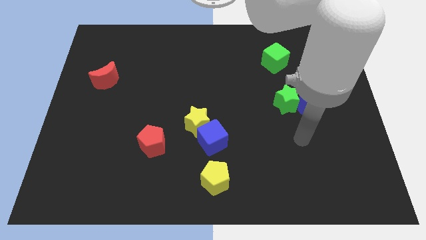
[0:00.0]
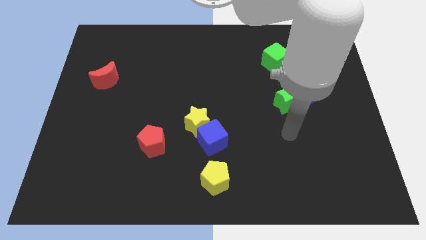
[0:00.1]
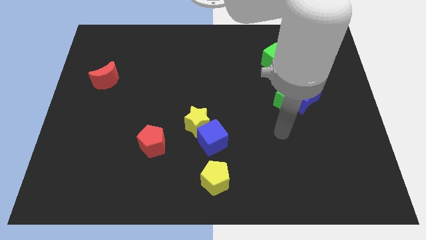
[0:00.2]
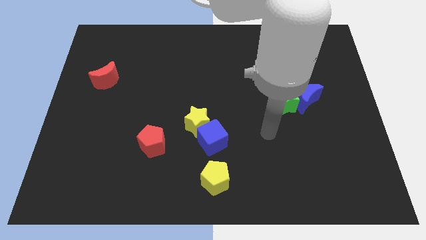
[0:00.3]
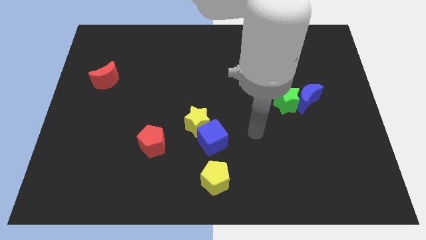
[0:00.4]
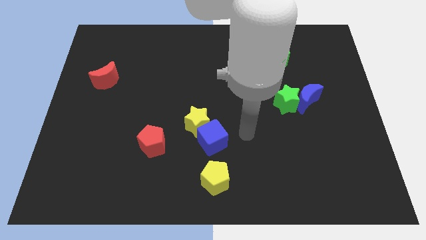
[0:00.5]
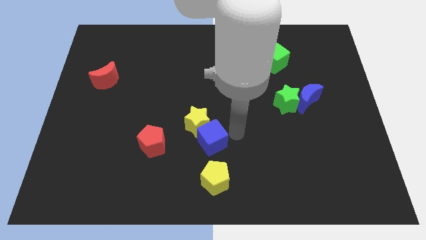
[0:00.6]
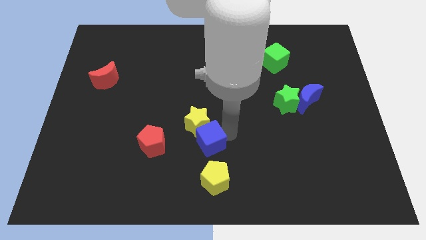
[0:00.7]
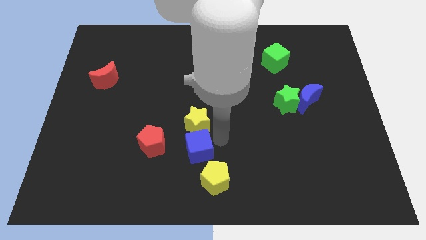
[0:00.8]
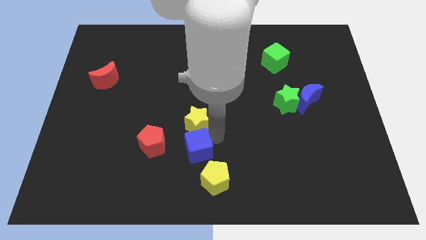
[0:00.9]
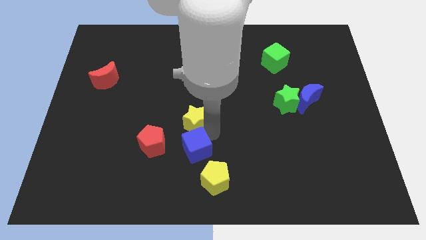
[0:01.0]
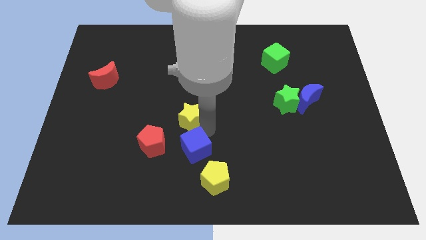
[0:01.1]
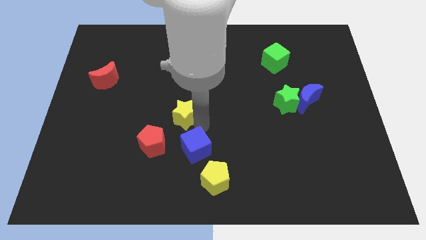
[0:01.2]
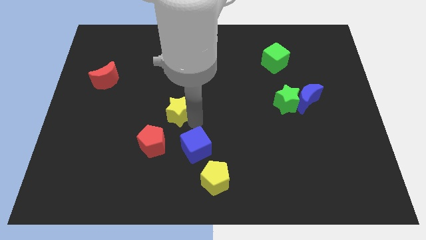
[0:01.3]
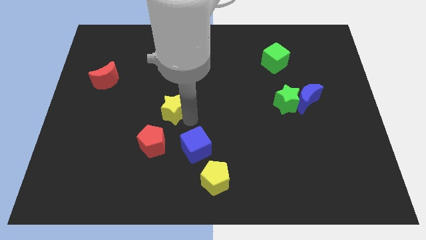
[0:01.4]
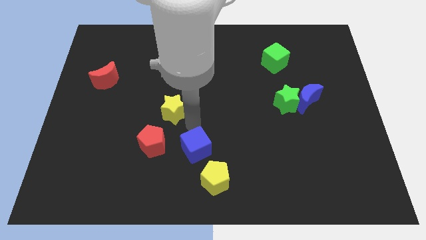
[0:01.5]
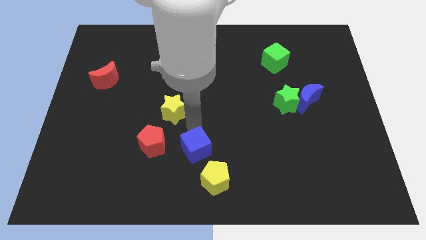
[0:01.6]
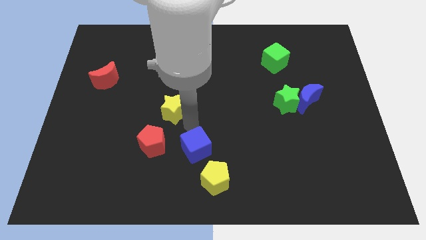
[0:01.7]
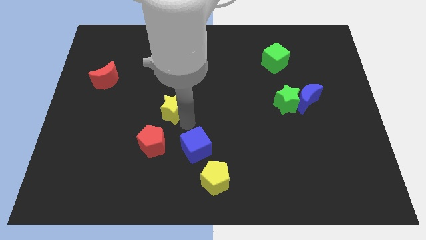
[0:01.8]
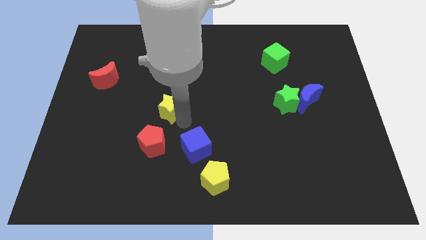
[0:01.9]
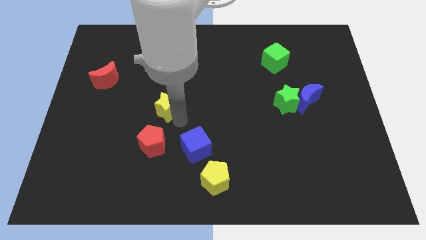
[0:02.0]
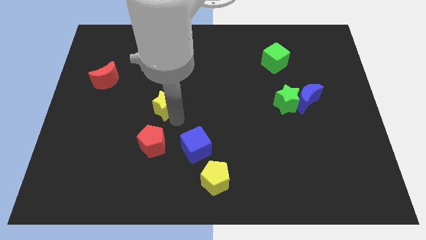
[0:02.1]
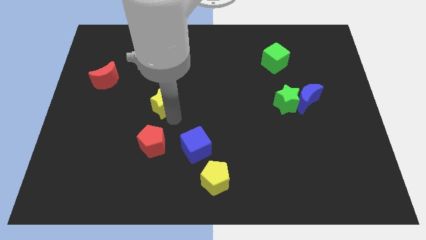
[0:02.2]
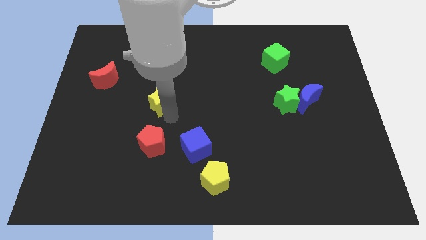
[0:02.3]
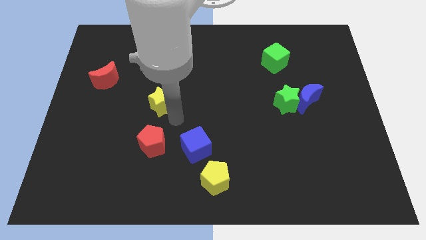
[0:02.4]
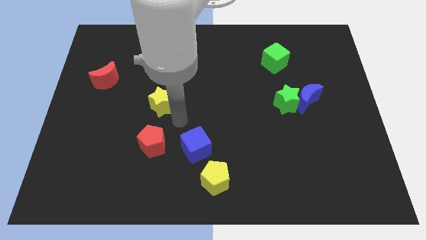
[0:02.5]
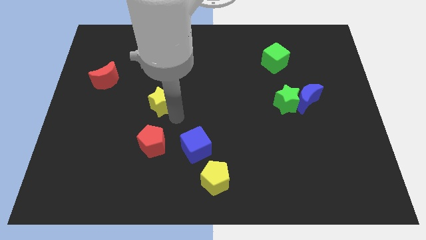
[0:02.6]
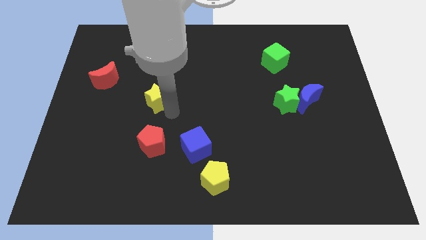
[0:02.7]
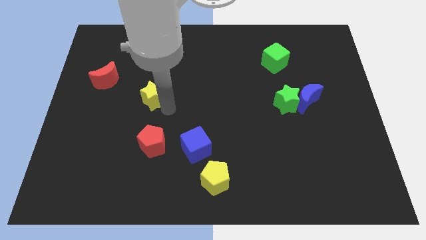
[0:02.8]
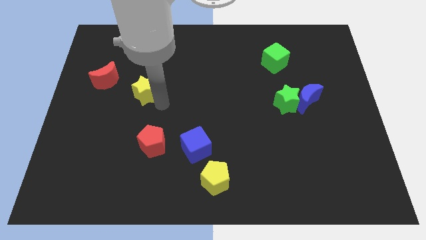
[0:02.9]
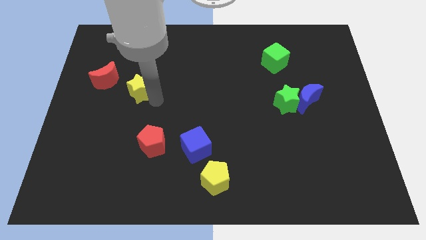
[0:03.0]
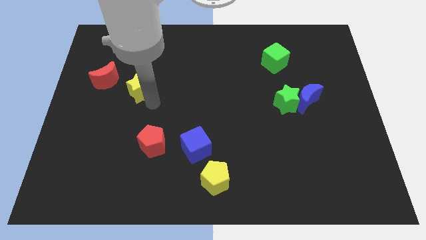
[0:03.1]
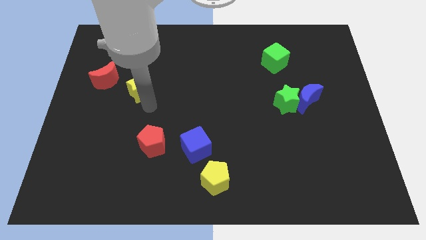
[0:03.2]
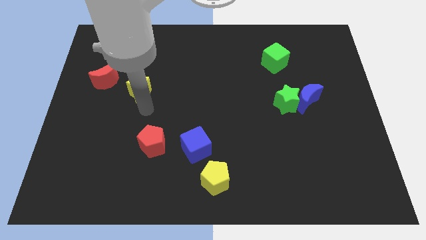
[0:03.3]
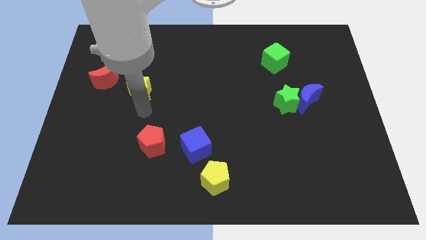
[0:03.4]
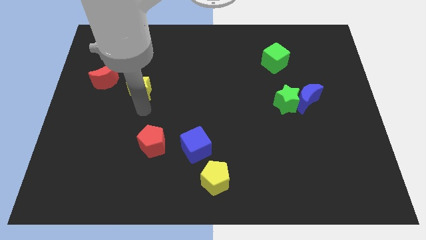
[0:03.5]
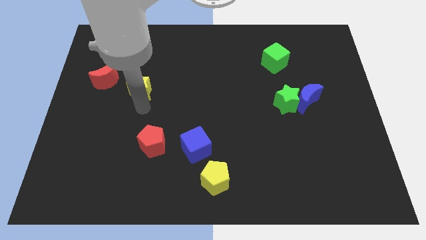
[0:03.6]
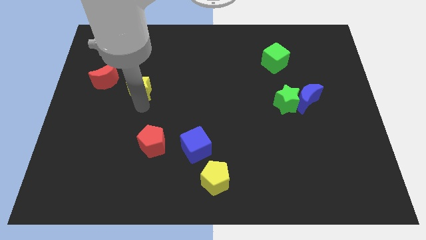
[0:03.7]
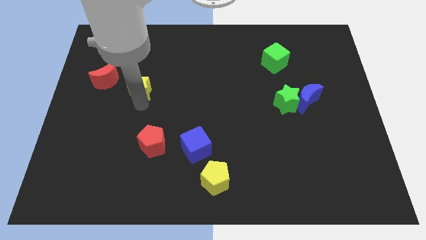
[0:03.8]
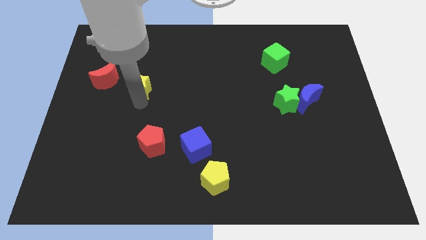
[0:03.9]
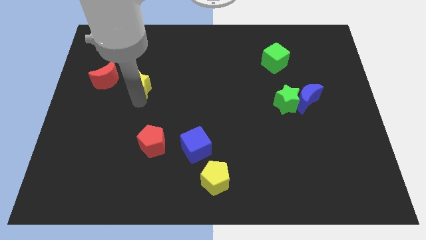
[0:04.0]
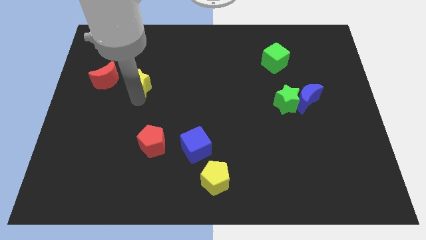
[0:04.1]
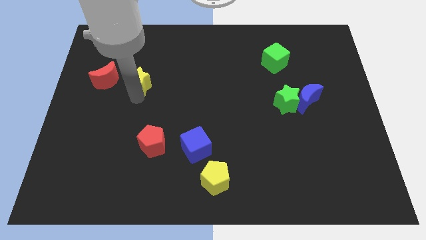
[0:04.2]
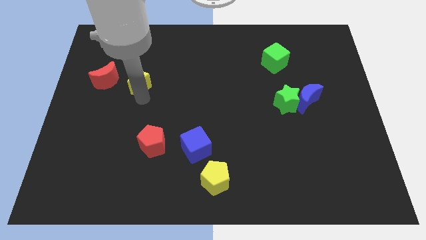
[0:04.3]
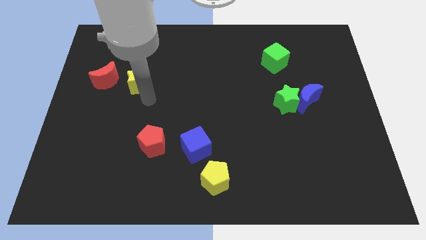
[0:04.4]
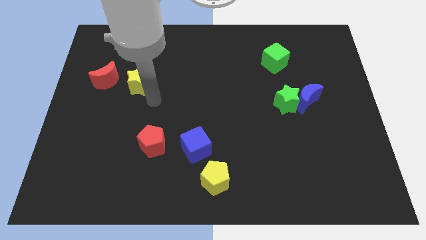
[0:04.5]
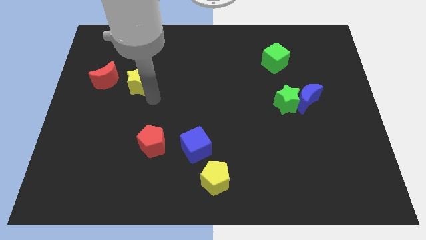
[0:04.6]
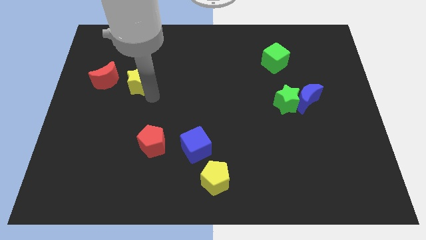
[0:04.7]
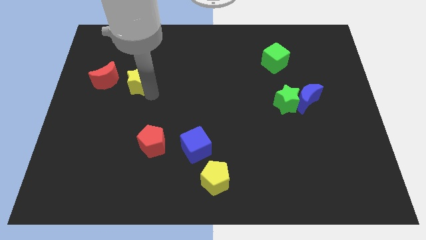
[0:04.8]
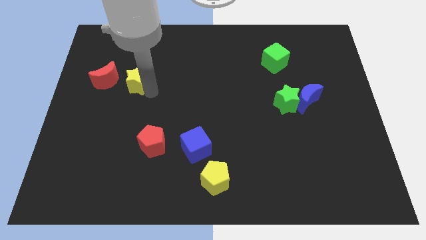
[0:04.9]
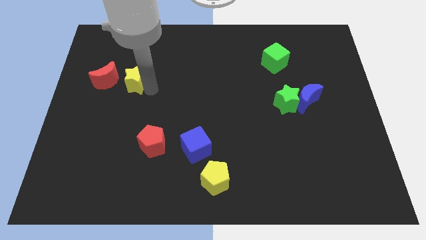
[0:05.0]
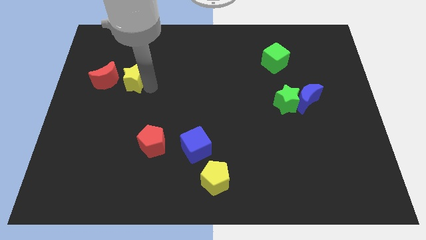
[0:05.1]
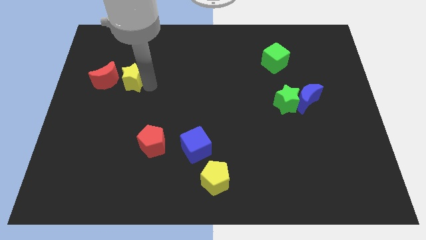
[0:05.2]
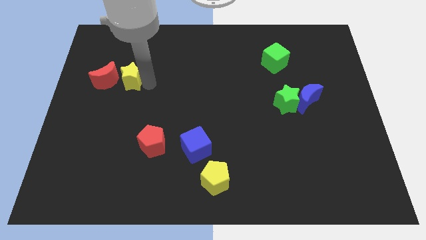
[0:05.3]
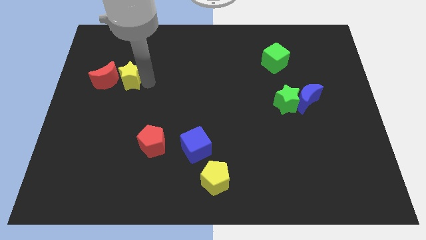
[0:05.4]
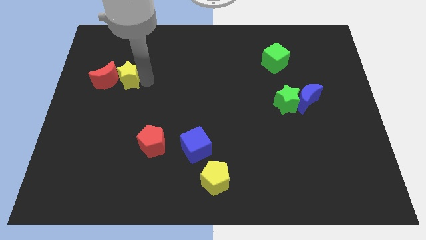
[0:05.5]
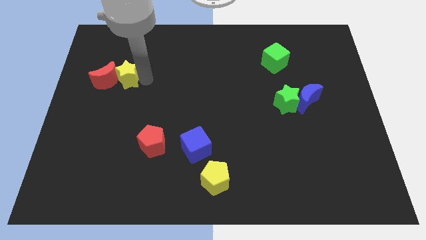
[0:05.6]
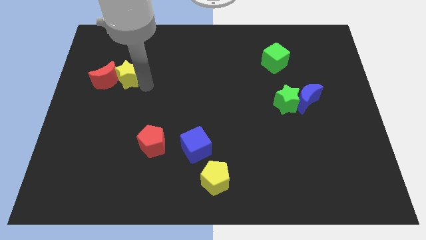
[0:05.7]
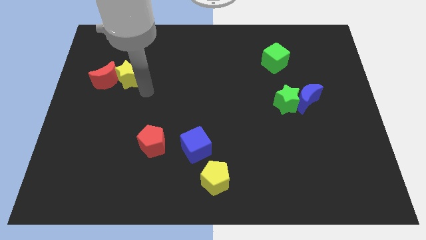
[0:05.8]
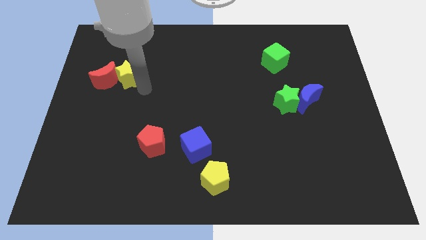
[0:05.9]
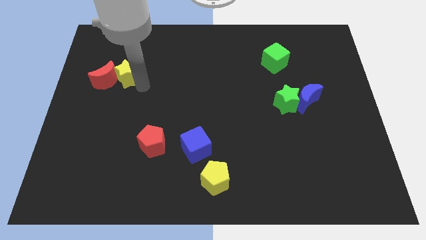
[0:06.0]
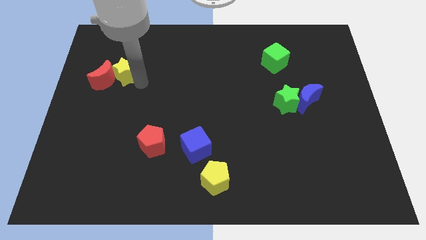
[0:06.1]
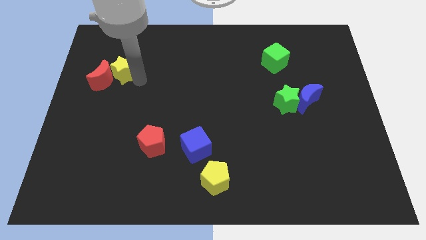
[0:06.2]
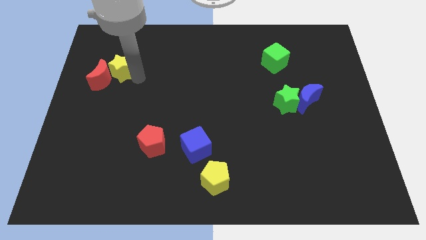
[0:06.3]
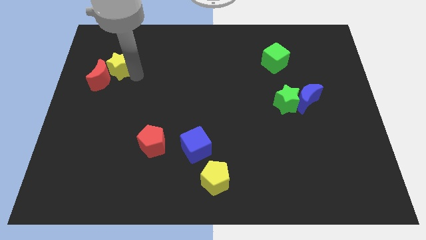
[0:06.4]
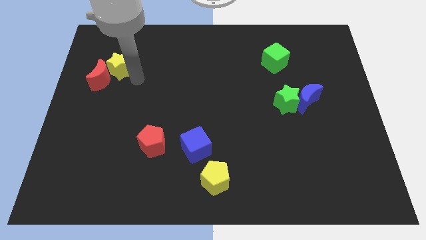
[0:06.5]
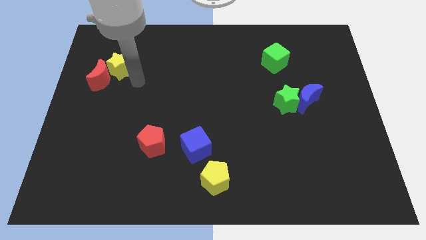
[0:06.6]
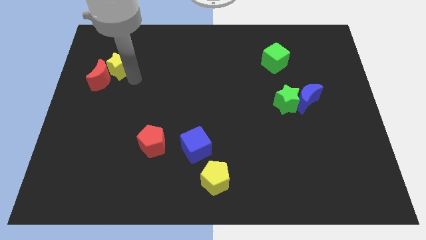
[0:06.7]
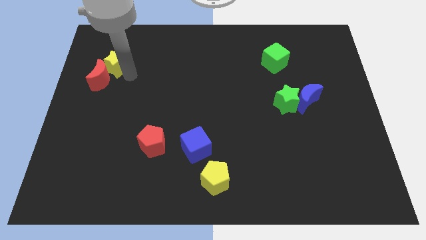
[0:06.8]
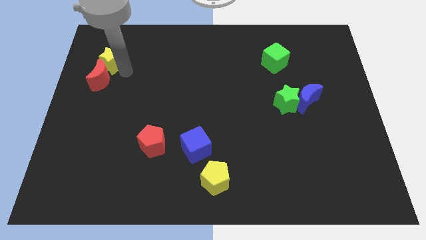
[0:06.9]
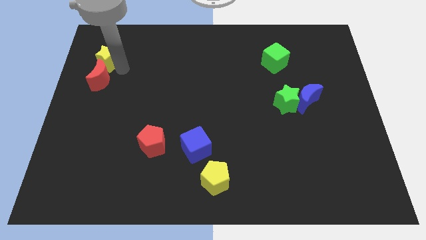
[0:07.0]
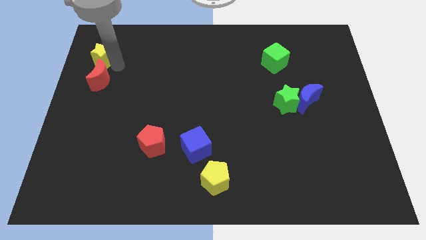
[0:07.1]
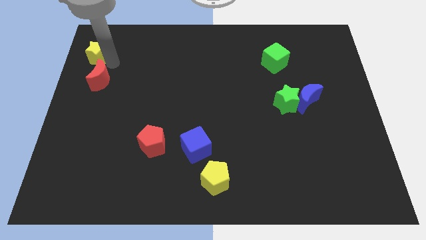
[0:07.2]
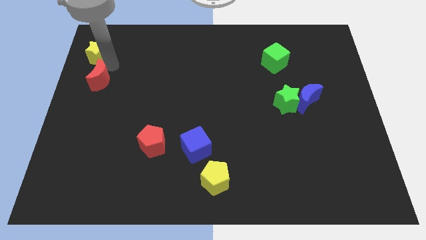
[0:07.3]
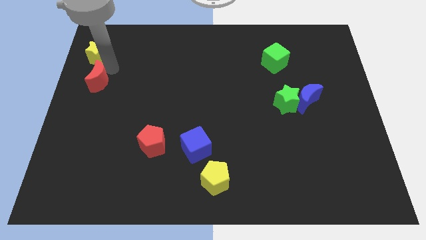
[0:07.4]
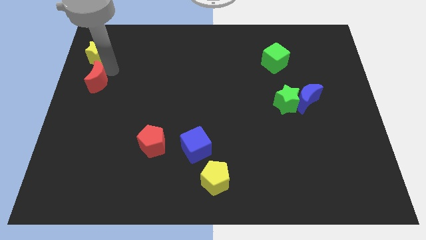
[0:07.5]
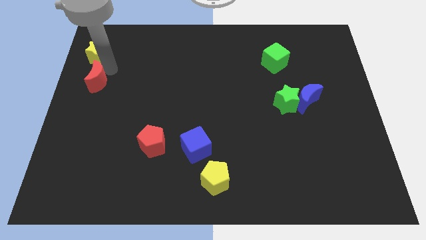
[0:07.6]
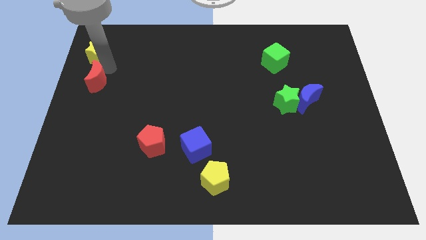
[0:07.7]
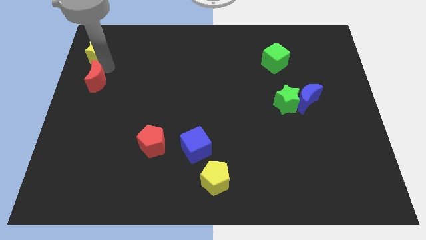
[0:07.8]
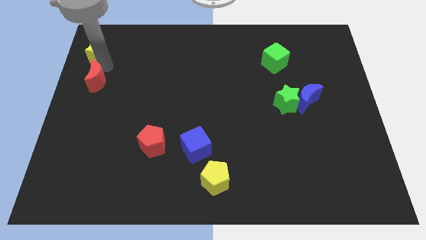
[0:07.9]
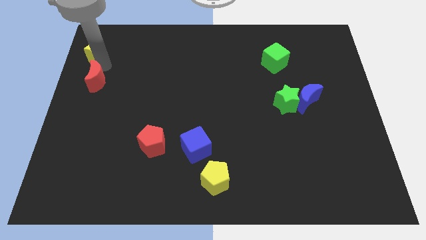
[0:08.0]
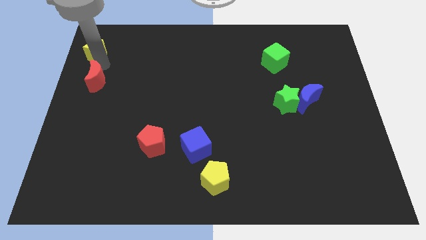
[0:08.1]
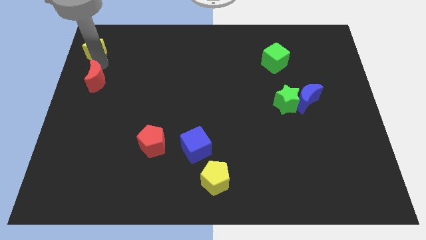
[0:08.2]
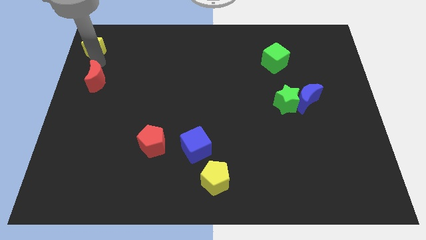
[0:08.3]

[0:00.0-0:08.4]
put the yellow star to the upper left corner
